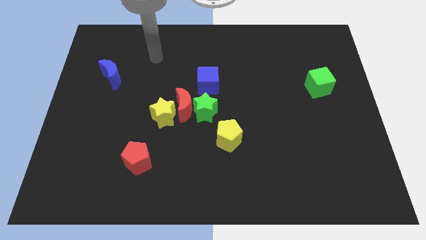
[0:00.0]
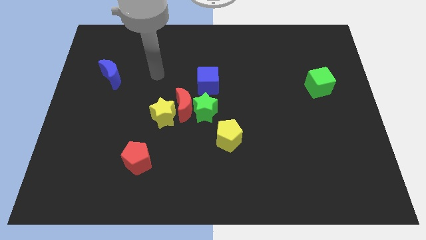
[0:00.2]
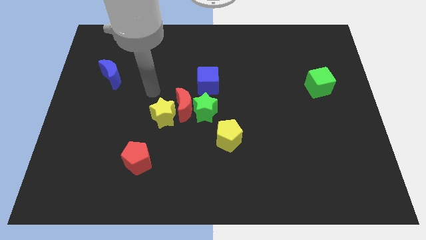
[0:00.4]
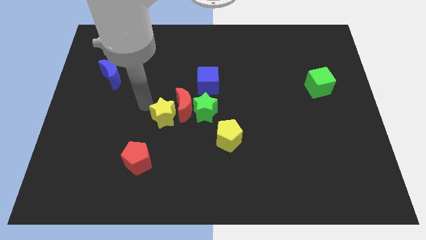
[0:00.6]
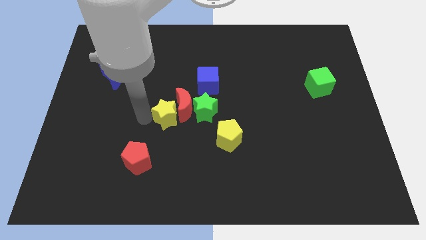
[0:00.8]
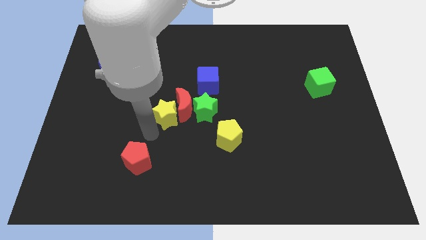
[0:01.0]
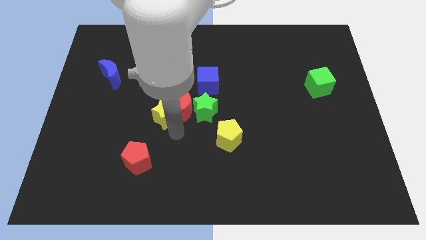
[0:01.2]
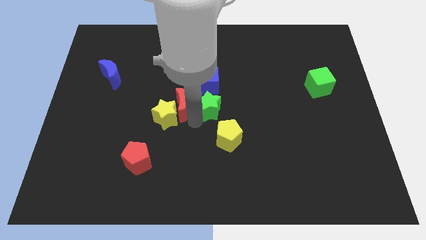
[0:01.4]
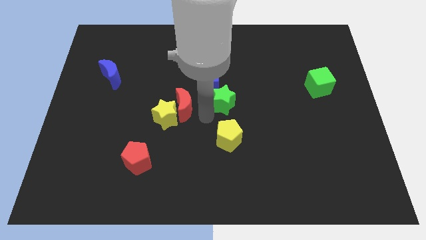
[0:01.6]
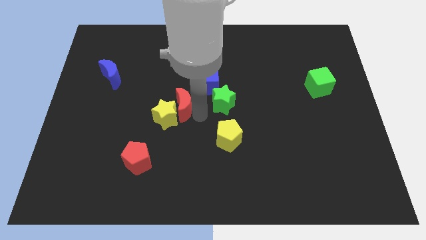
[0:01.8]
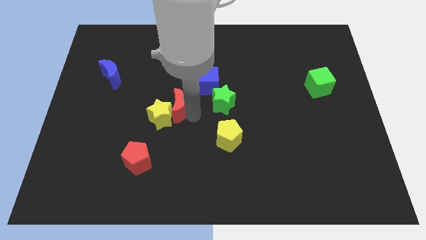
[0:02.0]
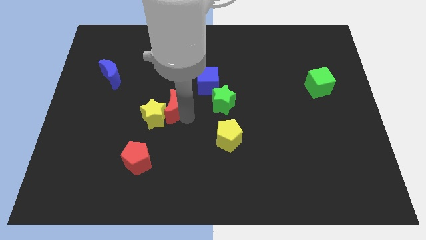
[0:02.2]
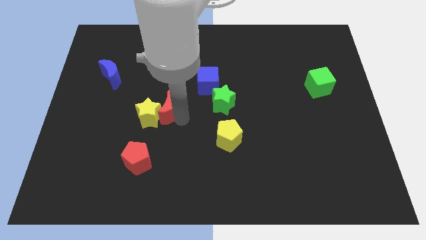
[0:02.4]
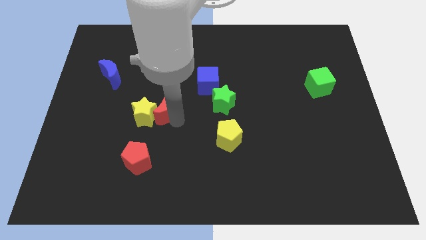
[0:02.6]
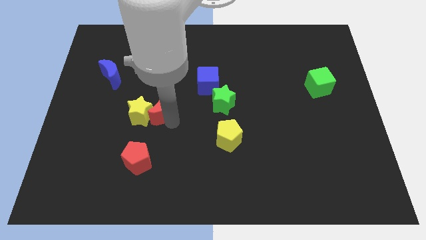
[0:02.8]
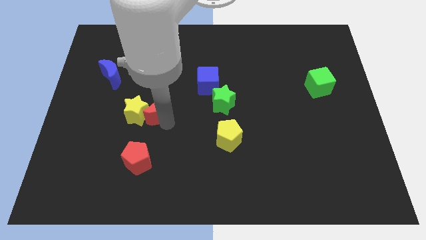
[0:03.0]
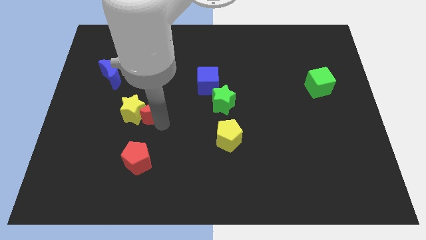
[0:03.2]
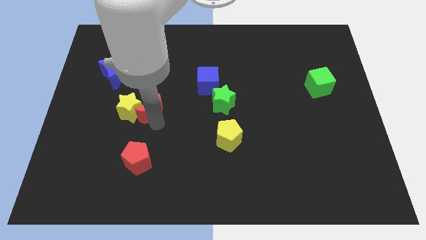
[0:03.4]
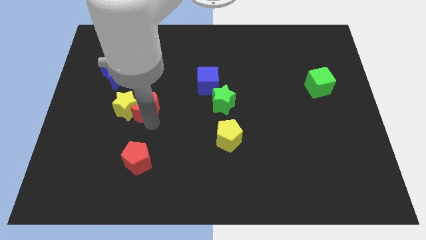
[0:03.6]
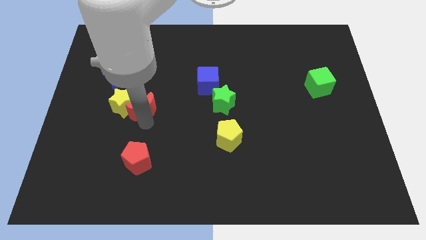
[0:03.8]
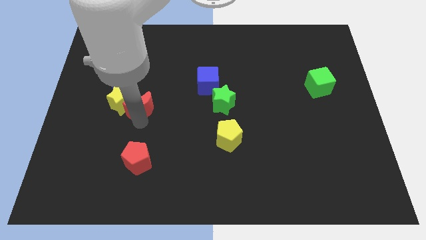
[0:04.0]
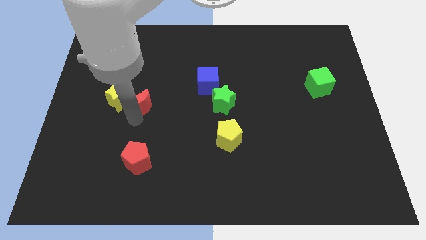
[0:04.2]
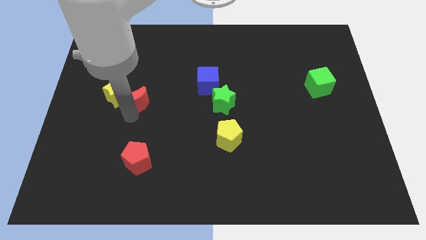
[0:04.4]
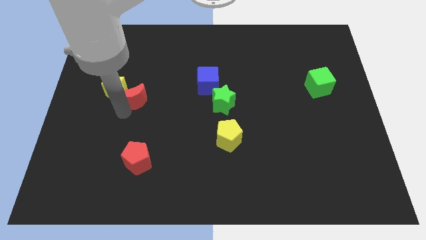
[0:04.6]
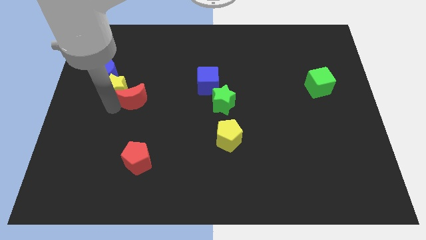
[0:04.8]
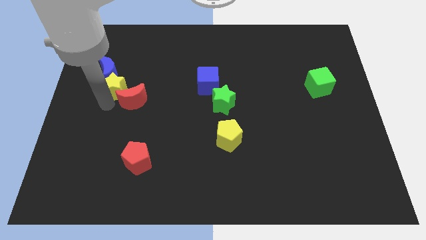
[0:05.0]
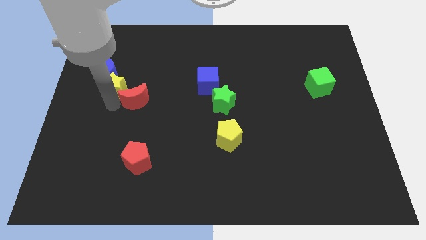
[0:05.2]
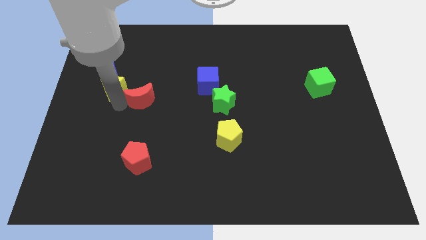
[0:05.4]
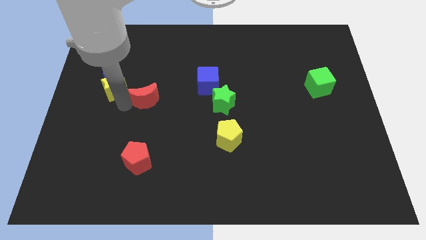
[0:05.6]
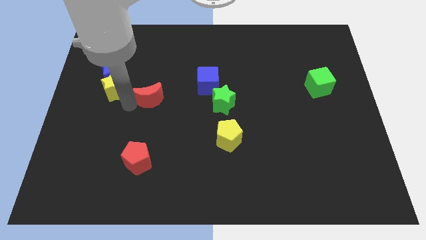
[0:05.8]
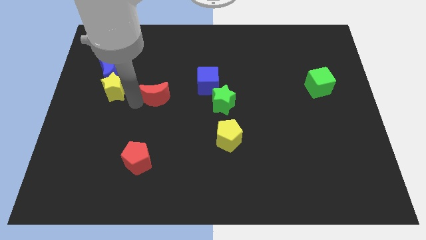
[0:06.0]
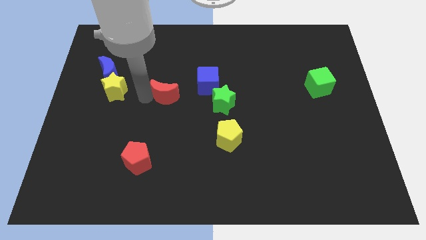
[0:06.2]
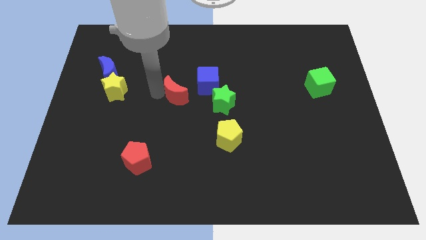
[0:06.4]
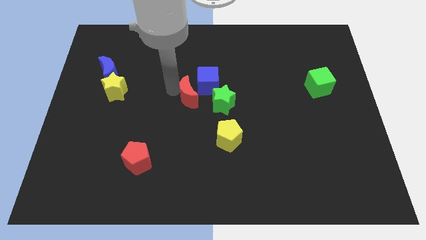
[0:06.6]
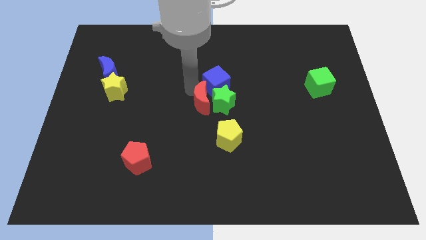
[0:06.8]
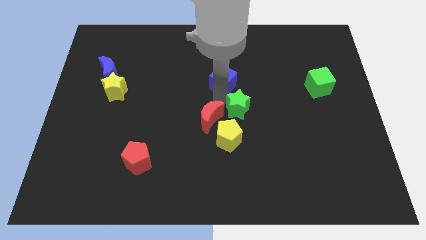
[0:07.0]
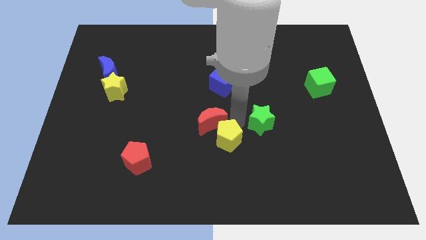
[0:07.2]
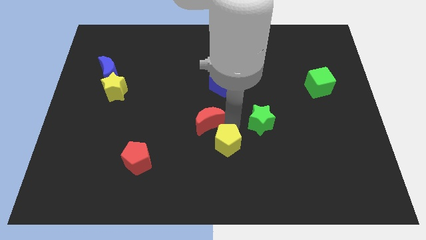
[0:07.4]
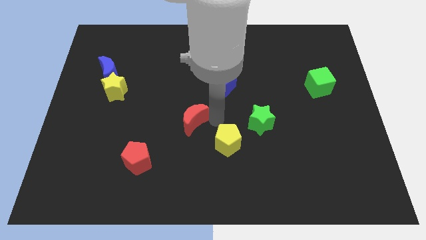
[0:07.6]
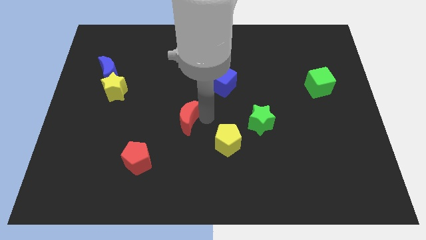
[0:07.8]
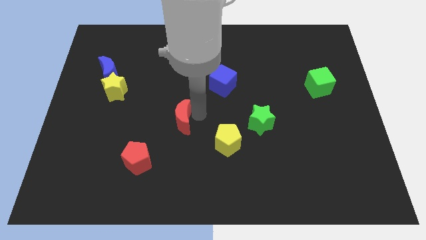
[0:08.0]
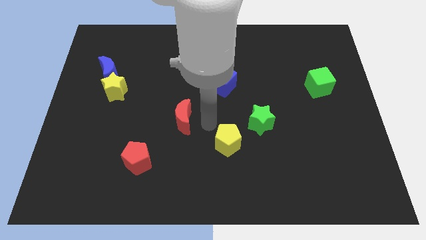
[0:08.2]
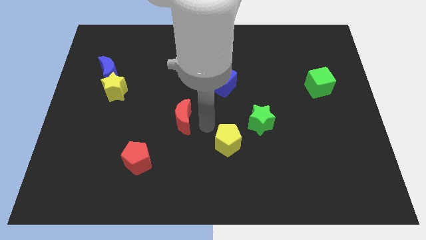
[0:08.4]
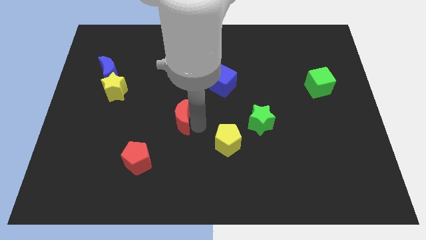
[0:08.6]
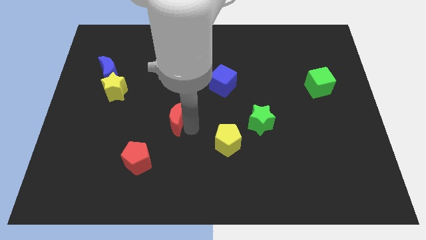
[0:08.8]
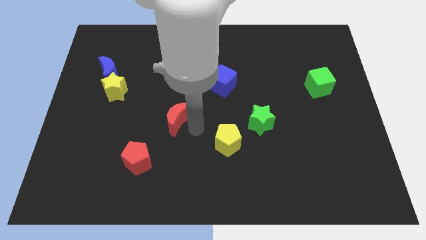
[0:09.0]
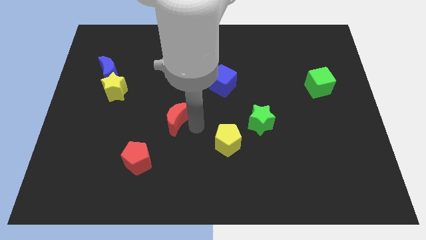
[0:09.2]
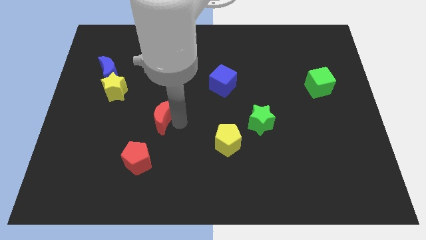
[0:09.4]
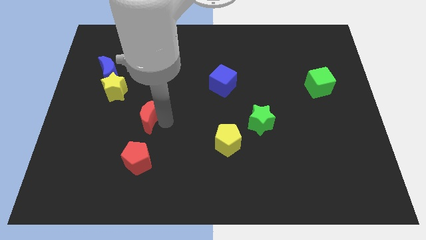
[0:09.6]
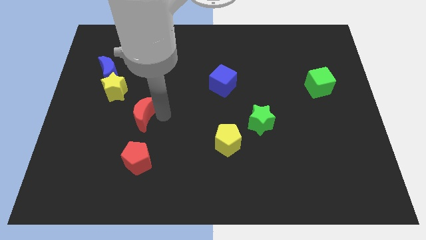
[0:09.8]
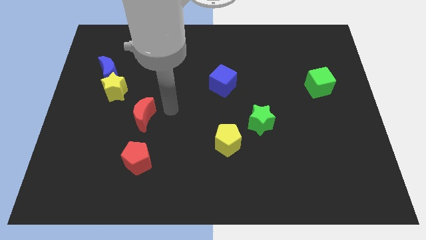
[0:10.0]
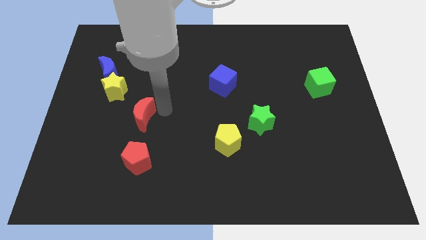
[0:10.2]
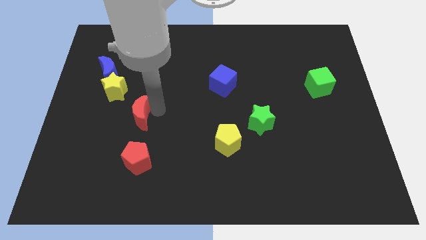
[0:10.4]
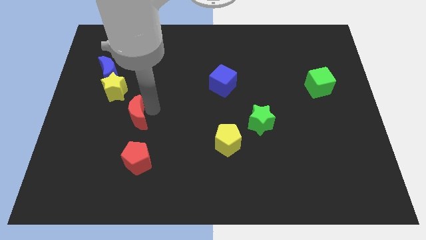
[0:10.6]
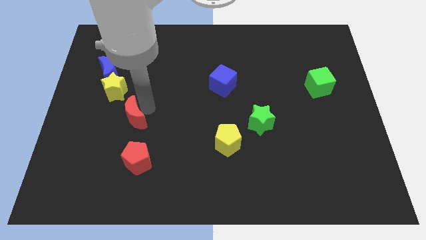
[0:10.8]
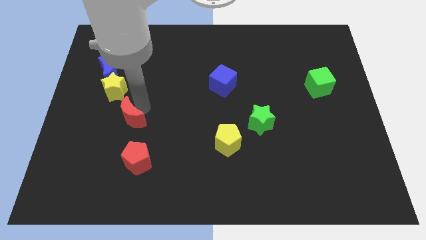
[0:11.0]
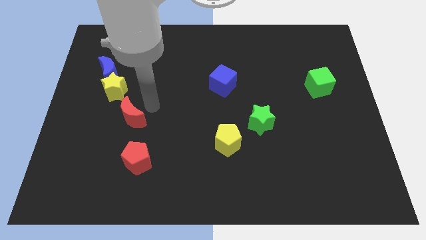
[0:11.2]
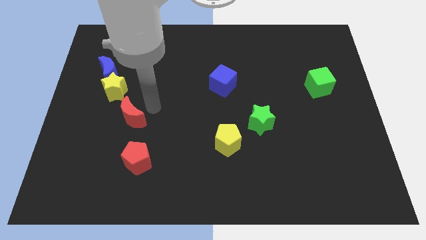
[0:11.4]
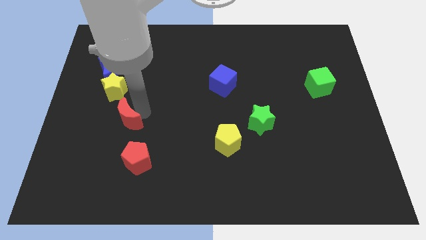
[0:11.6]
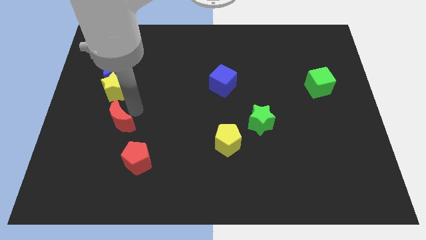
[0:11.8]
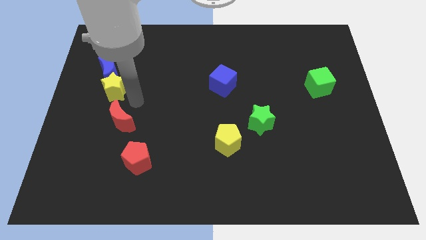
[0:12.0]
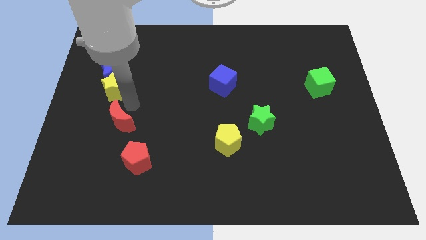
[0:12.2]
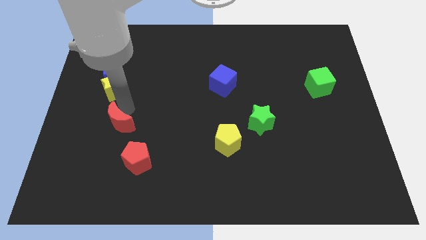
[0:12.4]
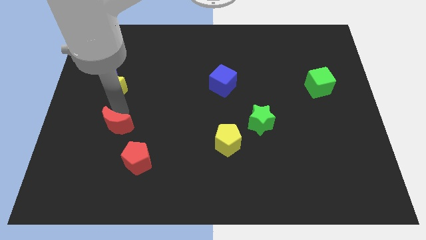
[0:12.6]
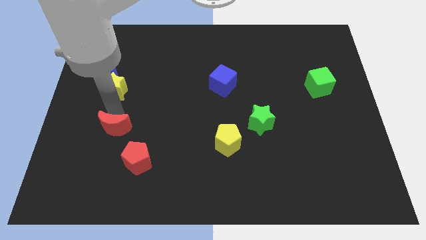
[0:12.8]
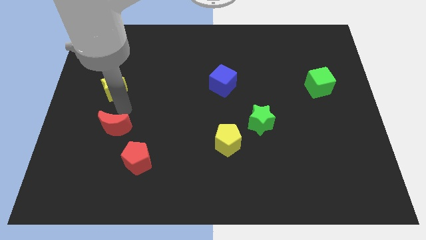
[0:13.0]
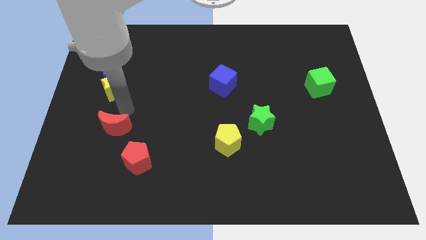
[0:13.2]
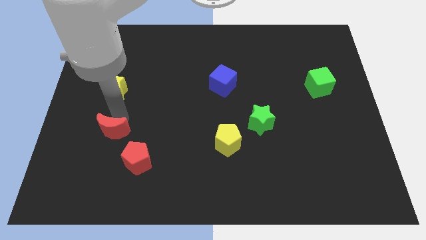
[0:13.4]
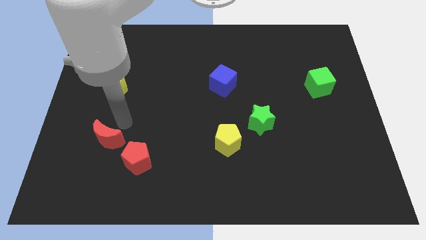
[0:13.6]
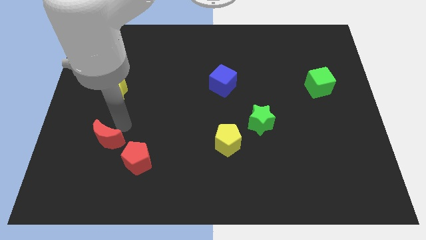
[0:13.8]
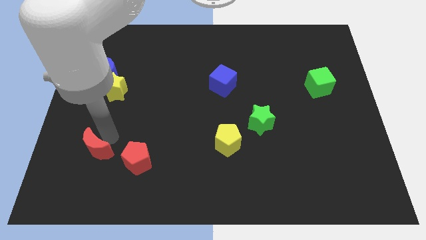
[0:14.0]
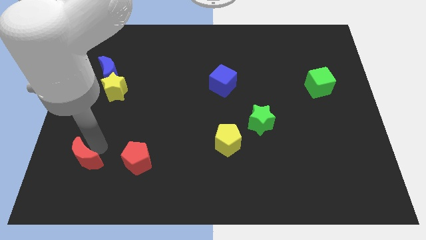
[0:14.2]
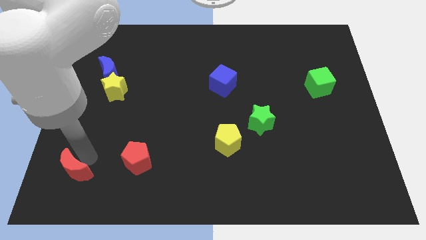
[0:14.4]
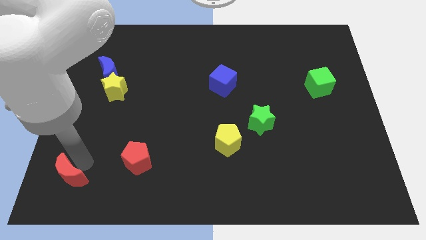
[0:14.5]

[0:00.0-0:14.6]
slide the red moon to the bottom left of the board
